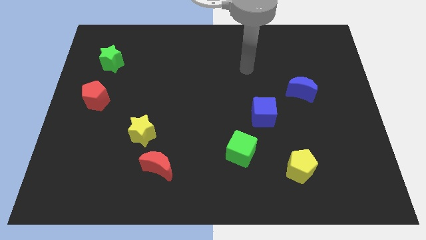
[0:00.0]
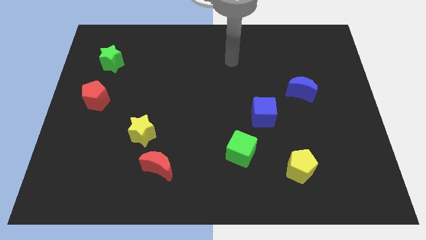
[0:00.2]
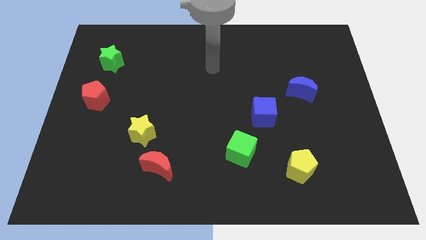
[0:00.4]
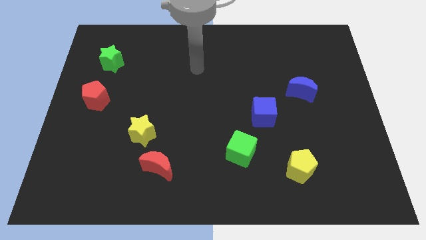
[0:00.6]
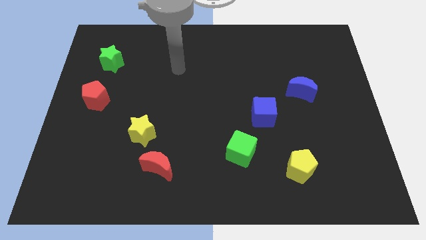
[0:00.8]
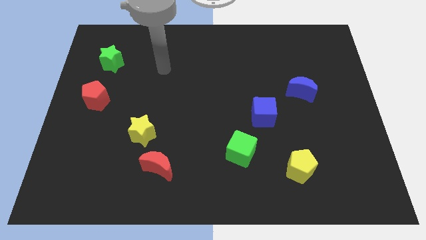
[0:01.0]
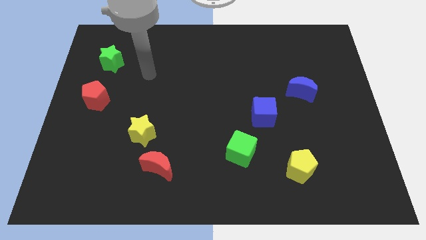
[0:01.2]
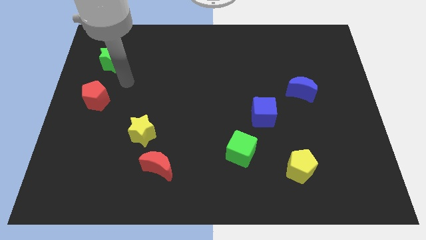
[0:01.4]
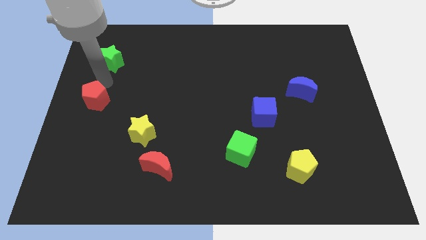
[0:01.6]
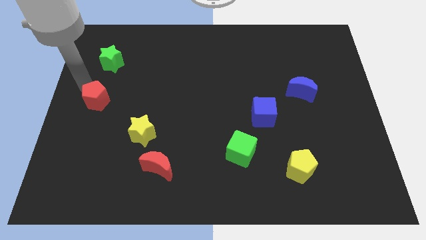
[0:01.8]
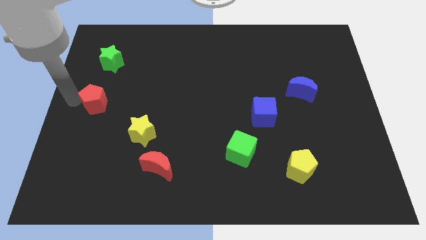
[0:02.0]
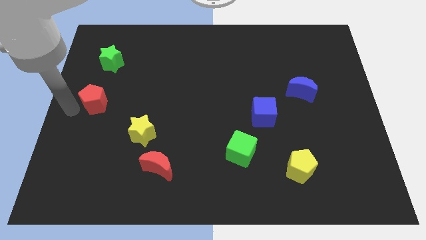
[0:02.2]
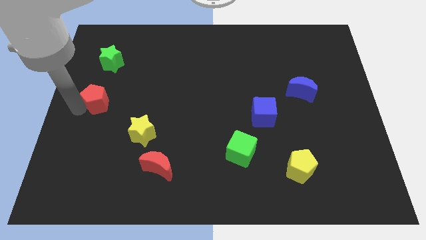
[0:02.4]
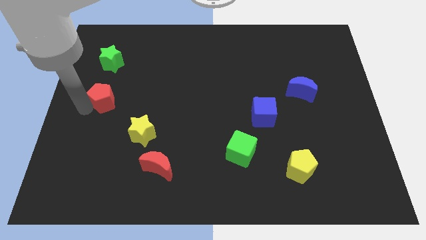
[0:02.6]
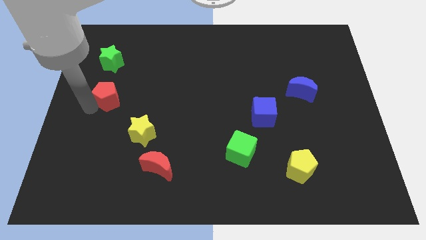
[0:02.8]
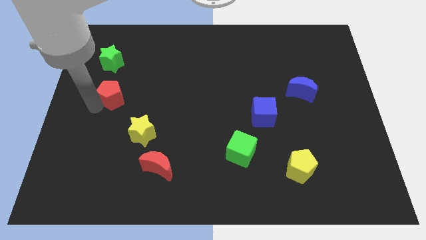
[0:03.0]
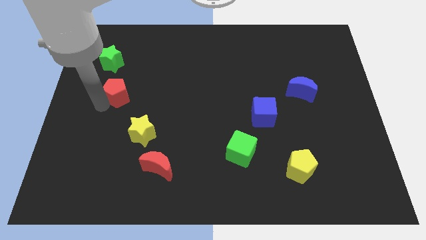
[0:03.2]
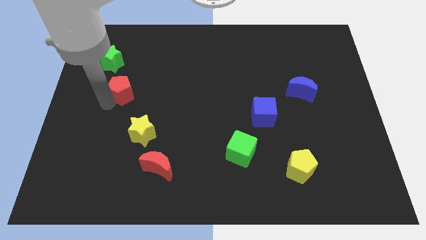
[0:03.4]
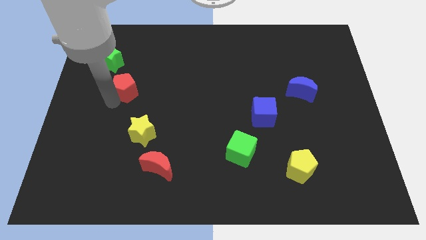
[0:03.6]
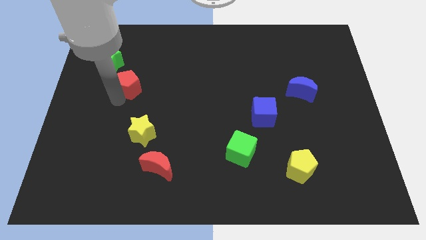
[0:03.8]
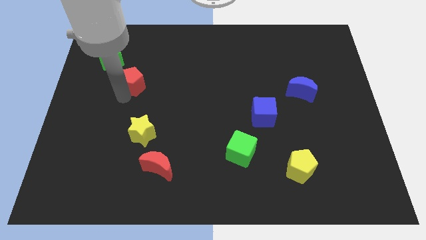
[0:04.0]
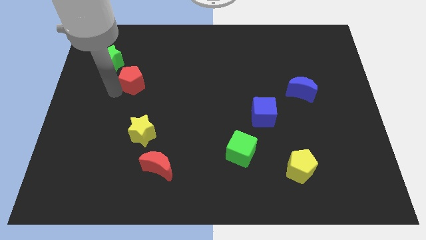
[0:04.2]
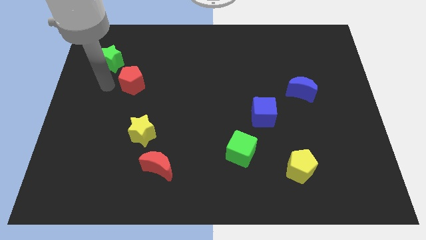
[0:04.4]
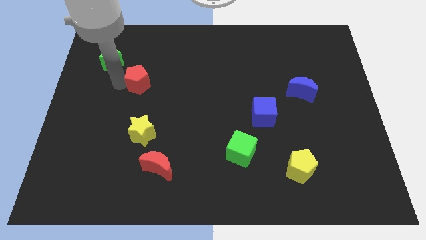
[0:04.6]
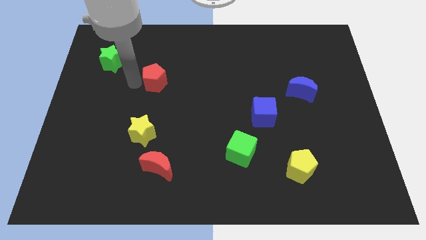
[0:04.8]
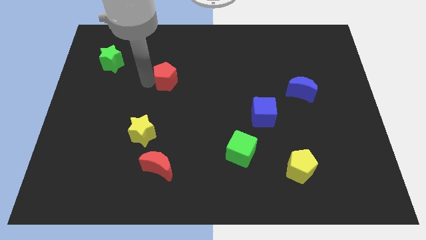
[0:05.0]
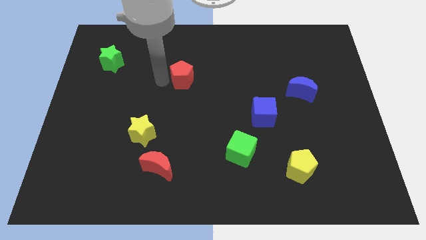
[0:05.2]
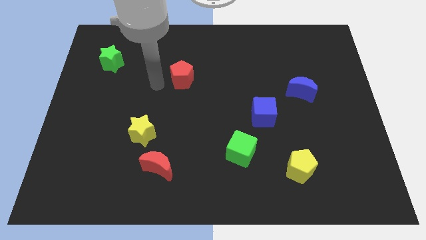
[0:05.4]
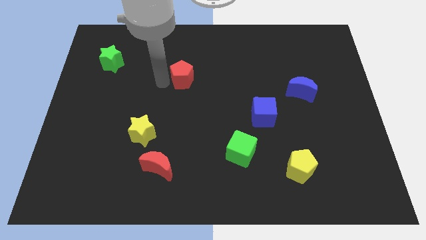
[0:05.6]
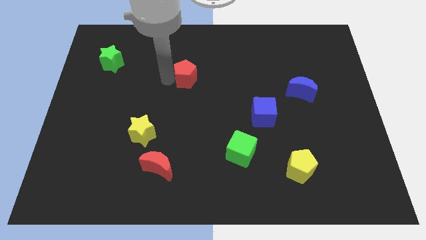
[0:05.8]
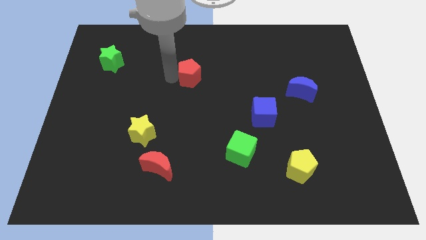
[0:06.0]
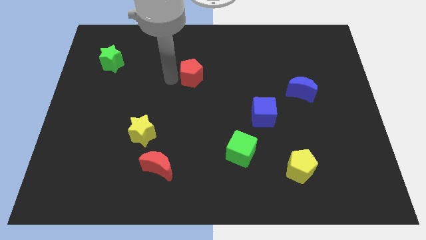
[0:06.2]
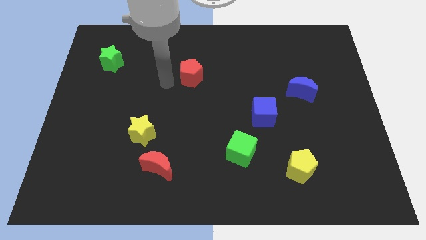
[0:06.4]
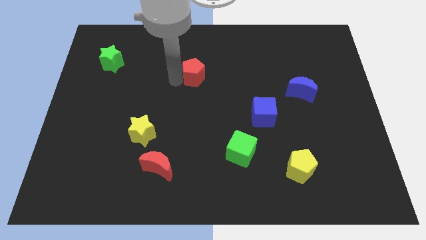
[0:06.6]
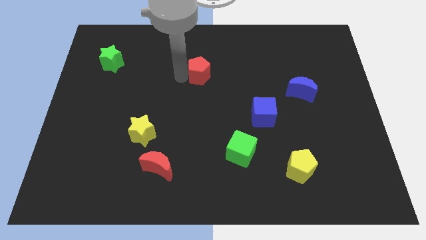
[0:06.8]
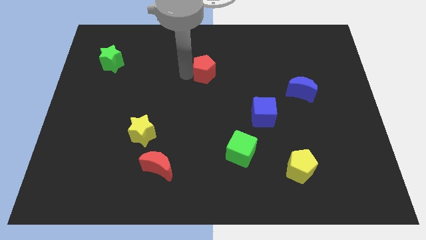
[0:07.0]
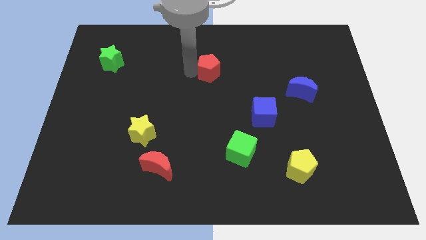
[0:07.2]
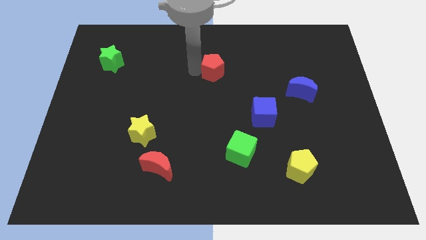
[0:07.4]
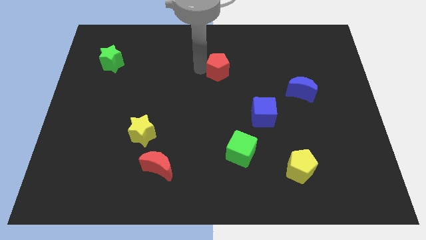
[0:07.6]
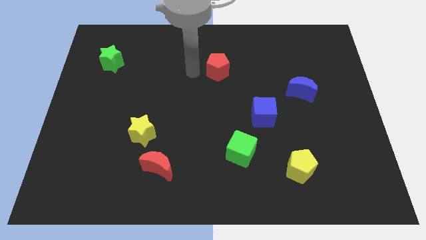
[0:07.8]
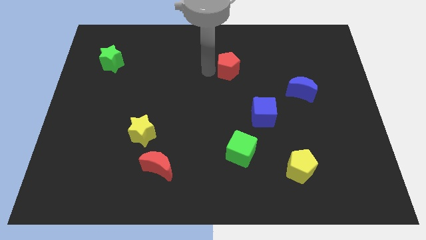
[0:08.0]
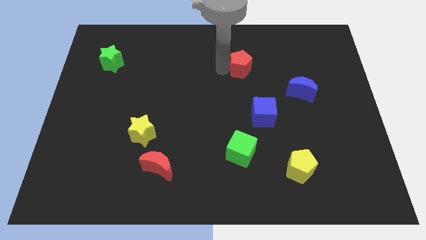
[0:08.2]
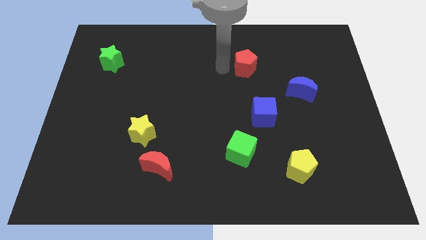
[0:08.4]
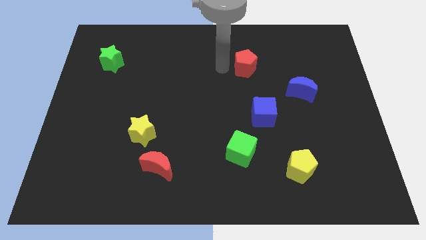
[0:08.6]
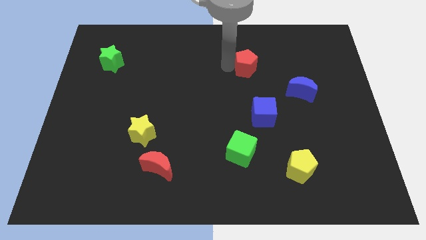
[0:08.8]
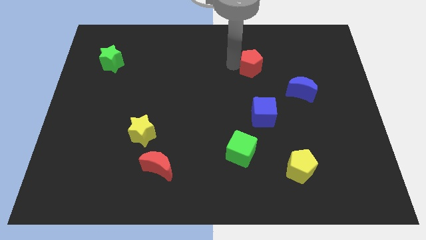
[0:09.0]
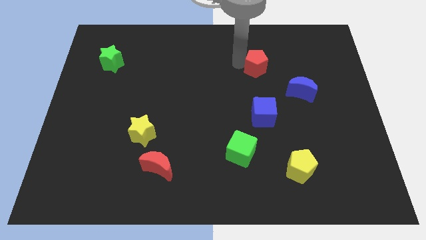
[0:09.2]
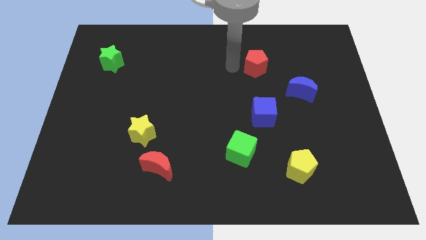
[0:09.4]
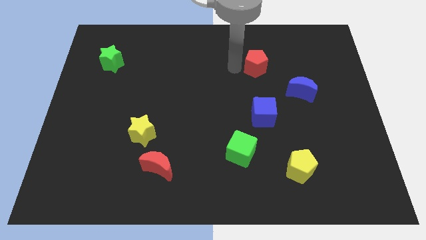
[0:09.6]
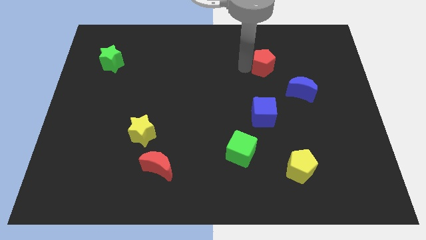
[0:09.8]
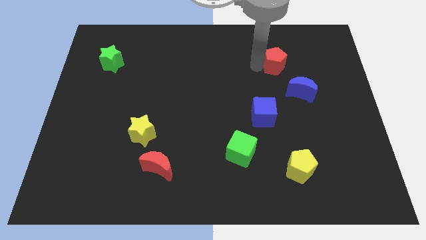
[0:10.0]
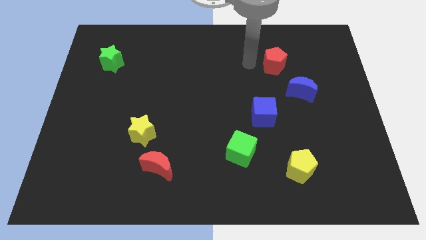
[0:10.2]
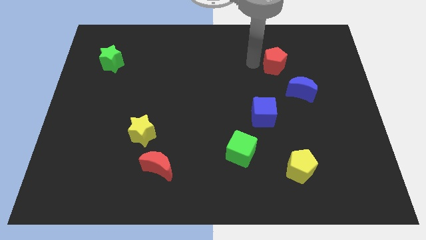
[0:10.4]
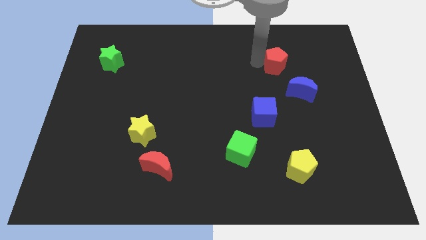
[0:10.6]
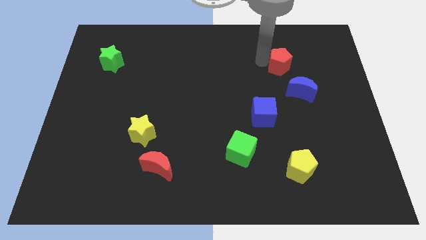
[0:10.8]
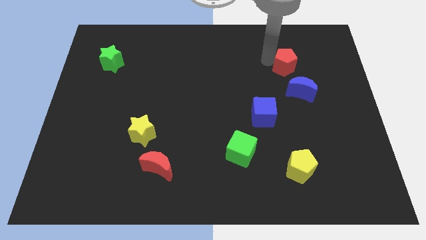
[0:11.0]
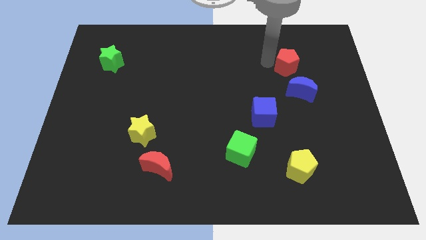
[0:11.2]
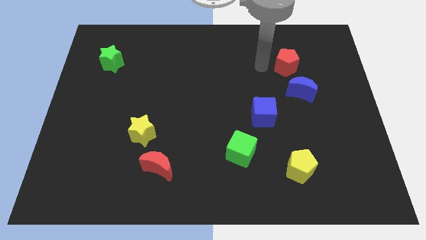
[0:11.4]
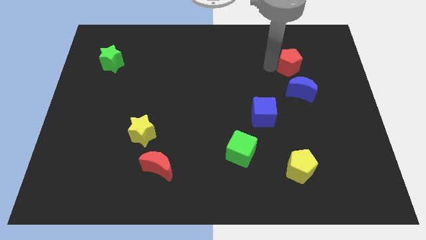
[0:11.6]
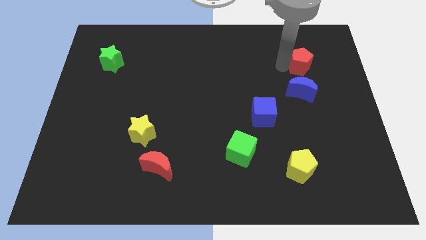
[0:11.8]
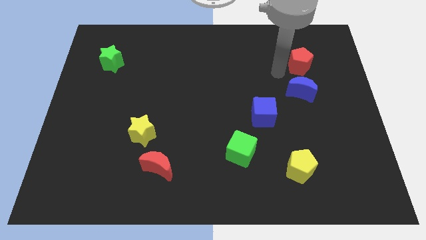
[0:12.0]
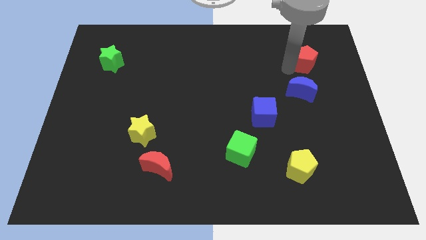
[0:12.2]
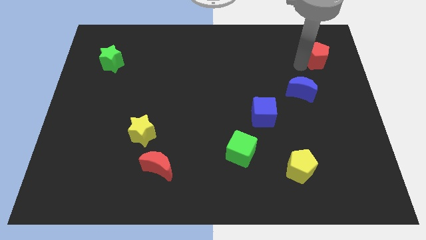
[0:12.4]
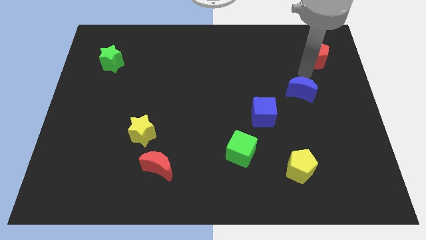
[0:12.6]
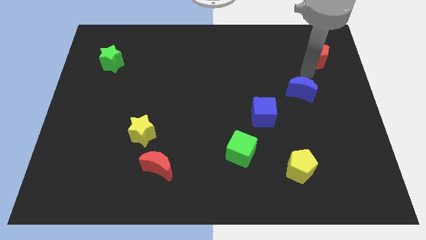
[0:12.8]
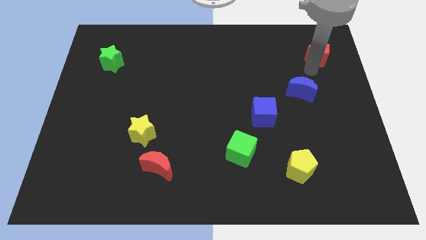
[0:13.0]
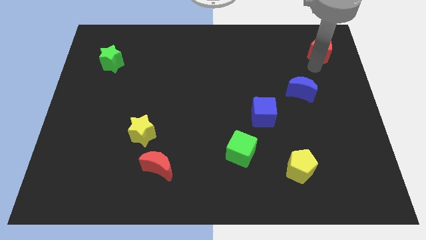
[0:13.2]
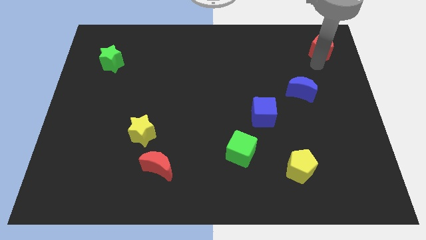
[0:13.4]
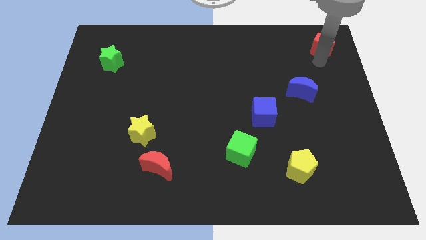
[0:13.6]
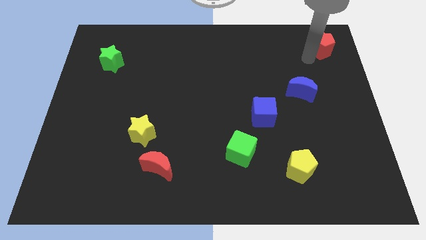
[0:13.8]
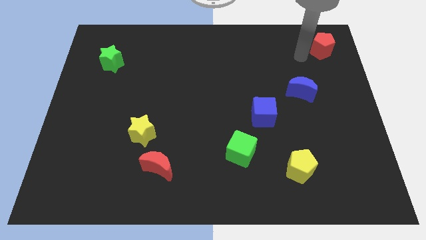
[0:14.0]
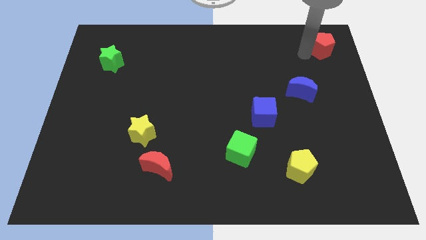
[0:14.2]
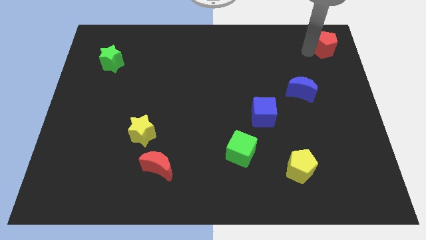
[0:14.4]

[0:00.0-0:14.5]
move the red pentagon to the top right

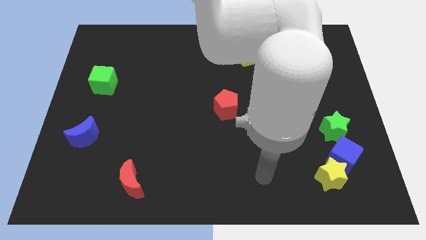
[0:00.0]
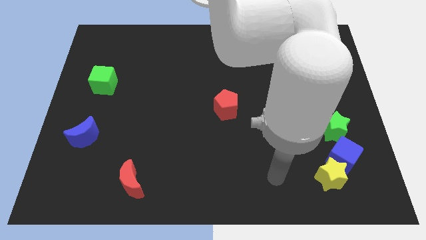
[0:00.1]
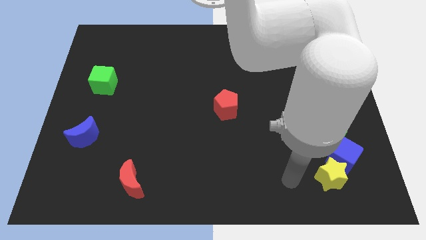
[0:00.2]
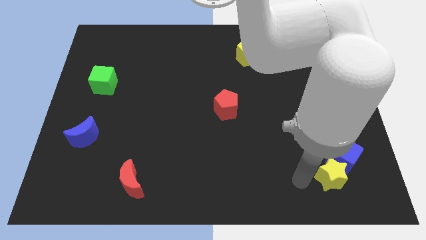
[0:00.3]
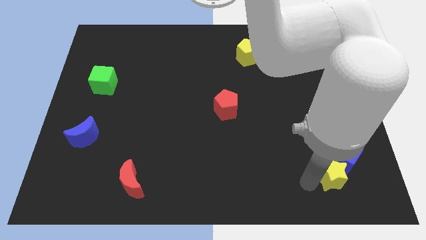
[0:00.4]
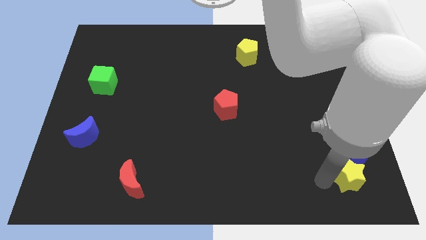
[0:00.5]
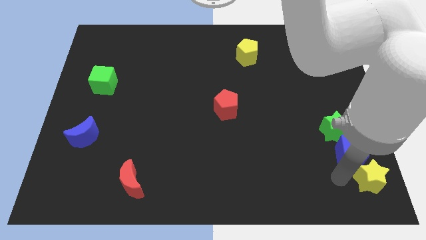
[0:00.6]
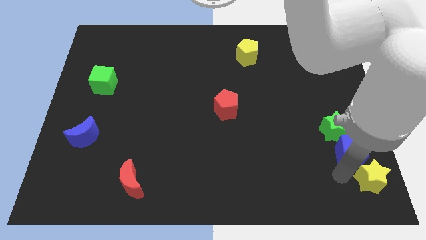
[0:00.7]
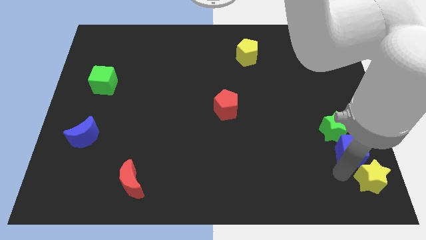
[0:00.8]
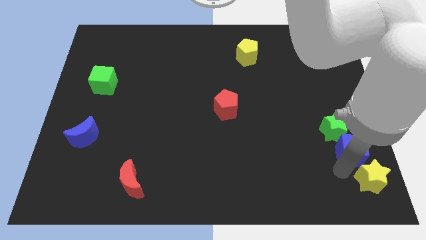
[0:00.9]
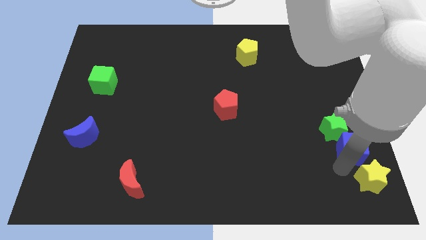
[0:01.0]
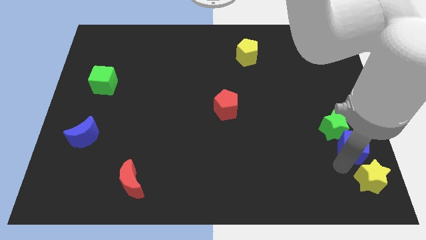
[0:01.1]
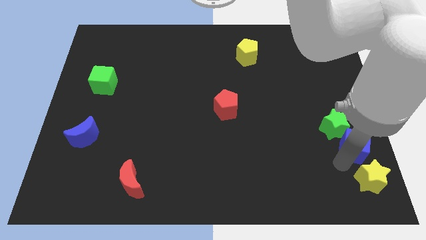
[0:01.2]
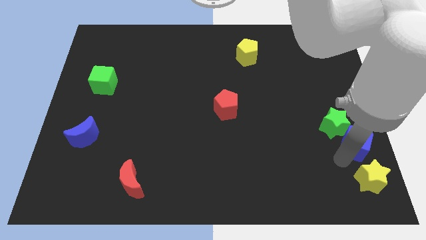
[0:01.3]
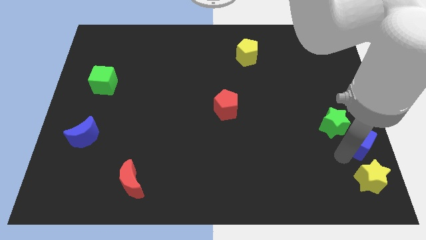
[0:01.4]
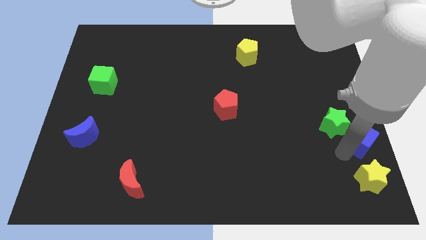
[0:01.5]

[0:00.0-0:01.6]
slide the blue cube to the center right
